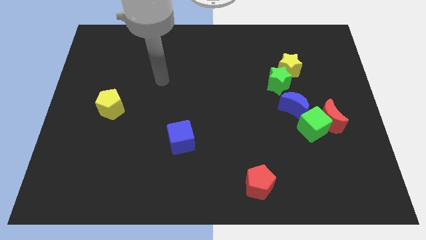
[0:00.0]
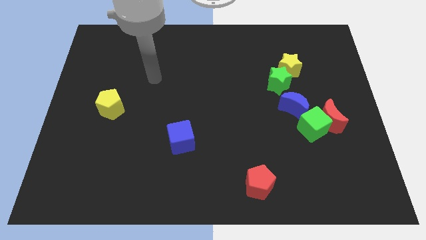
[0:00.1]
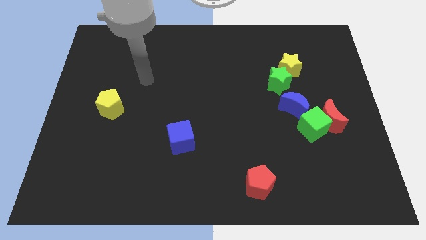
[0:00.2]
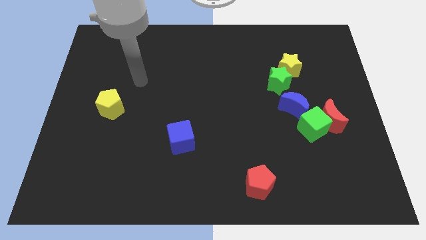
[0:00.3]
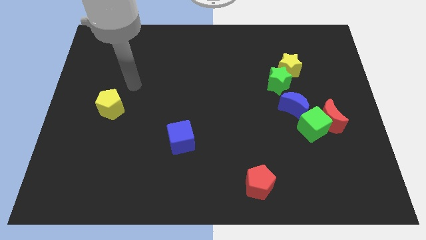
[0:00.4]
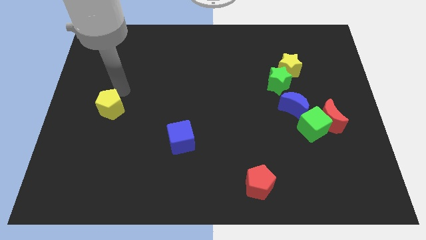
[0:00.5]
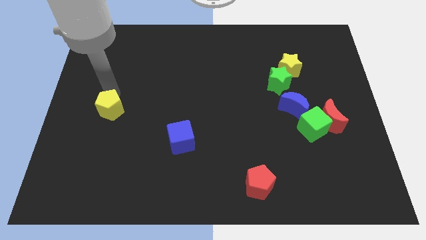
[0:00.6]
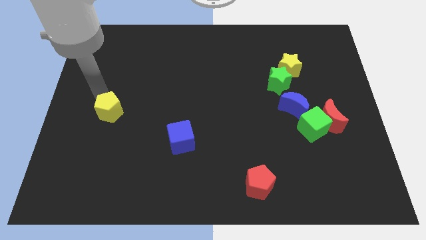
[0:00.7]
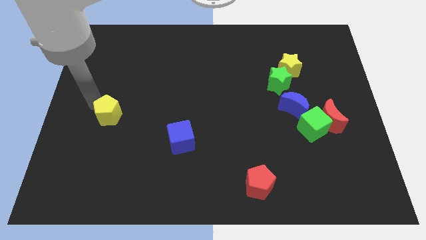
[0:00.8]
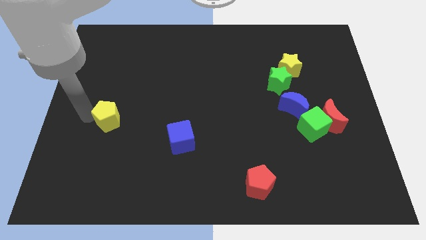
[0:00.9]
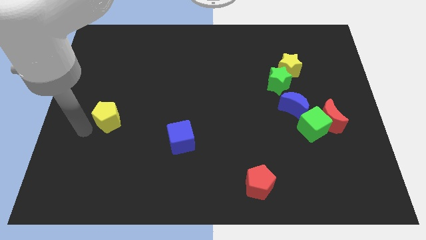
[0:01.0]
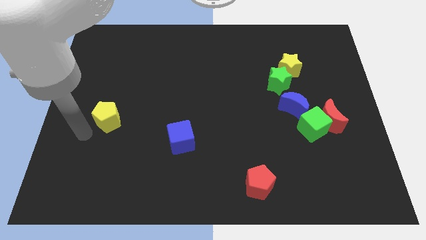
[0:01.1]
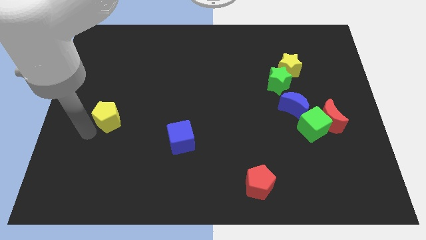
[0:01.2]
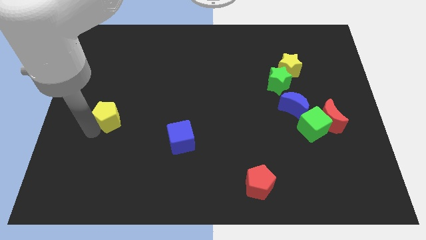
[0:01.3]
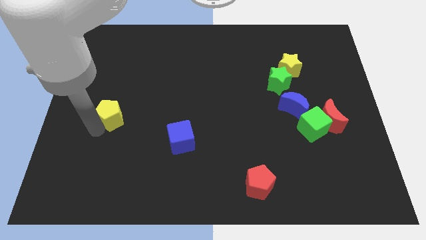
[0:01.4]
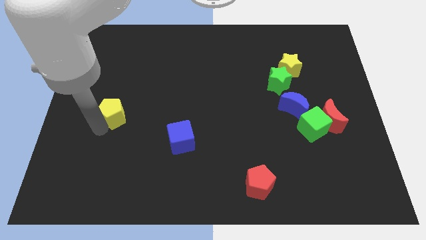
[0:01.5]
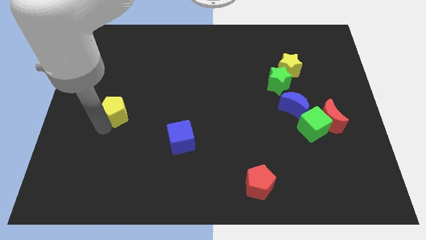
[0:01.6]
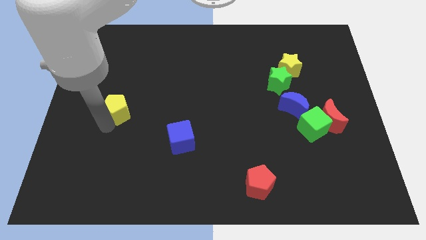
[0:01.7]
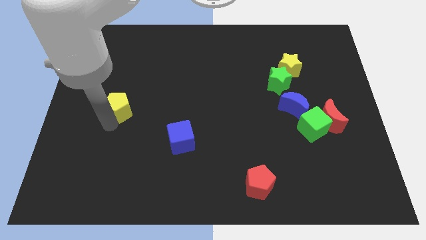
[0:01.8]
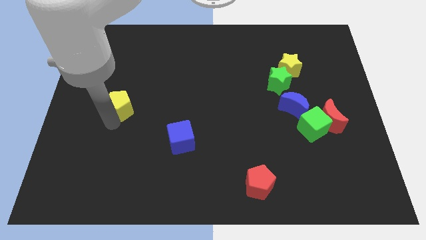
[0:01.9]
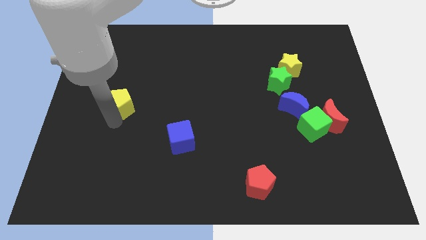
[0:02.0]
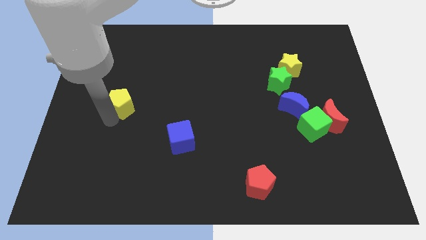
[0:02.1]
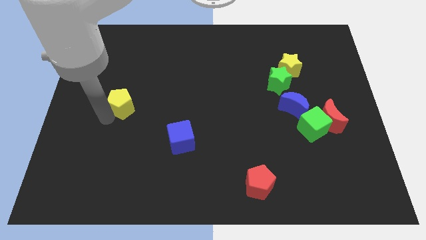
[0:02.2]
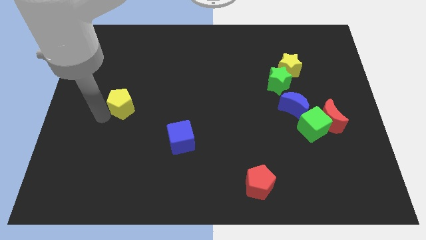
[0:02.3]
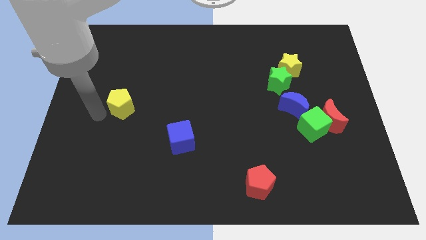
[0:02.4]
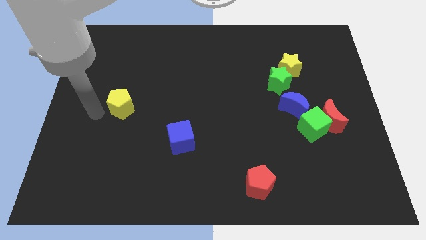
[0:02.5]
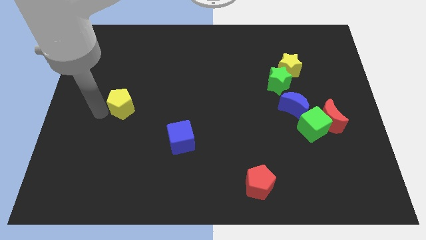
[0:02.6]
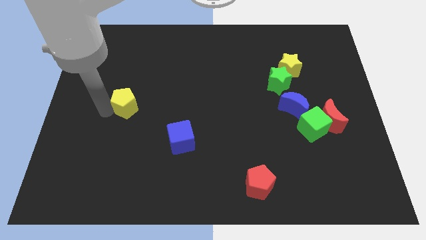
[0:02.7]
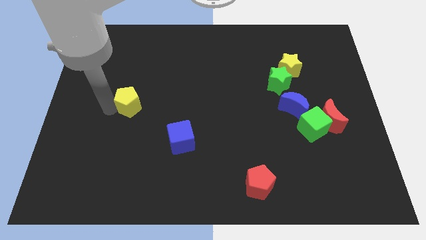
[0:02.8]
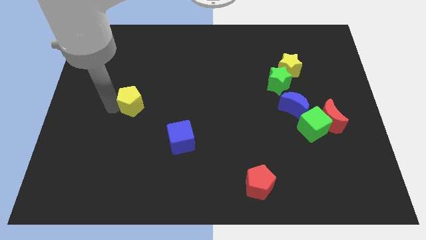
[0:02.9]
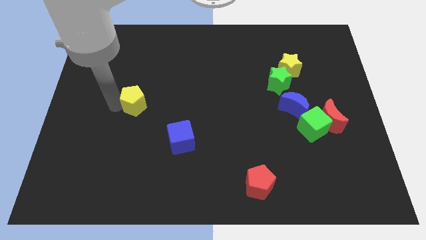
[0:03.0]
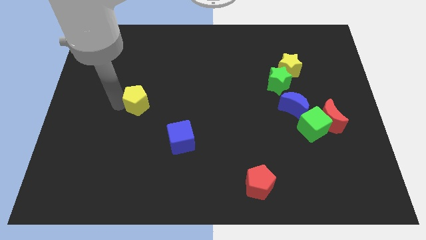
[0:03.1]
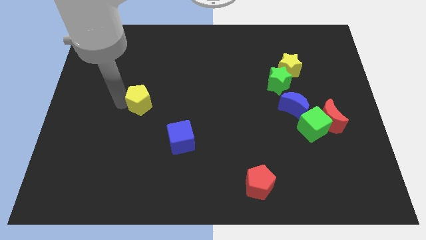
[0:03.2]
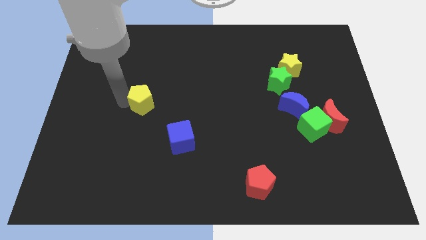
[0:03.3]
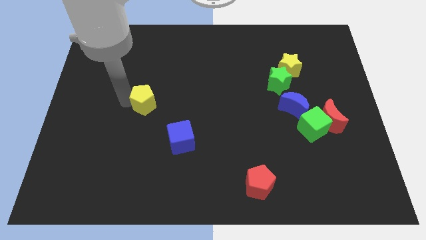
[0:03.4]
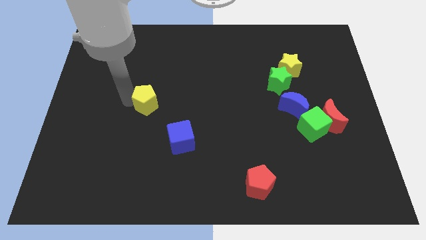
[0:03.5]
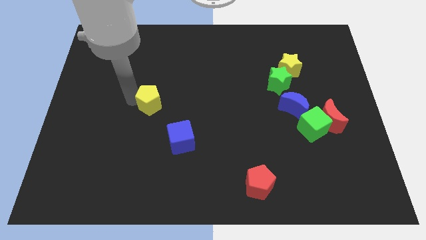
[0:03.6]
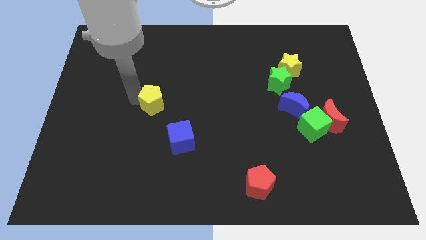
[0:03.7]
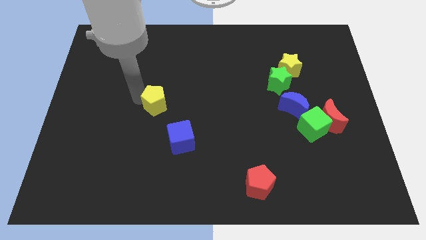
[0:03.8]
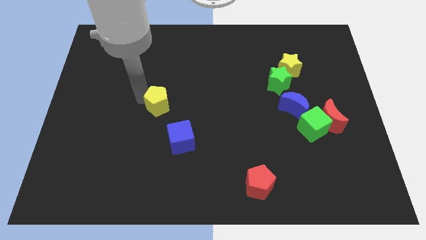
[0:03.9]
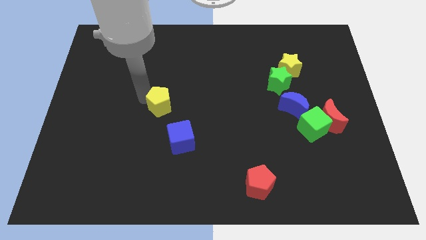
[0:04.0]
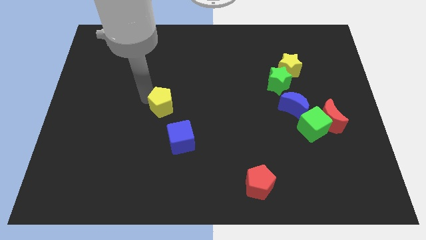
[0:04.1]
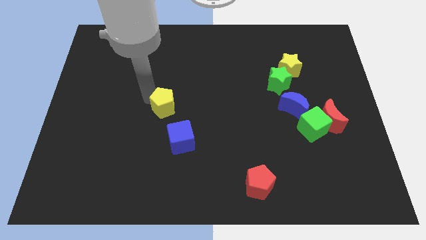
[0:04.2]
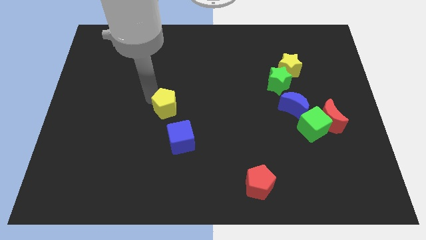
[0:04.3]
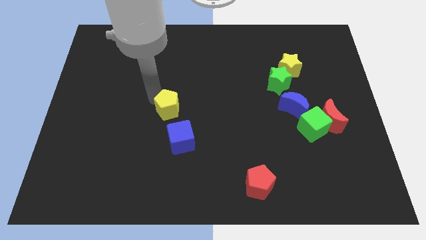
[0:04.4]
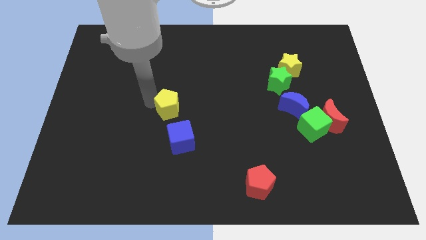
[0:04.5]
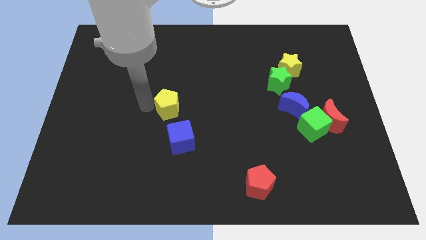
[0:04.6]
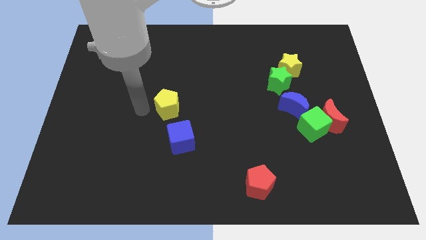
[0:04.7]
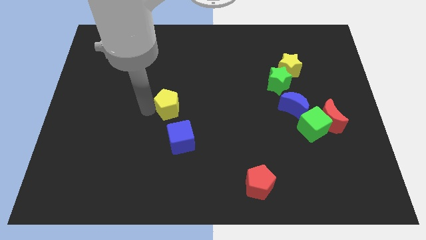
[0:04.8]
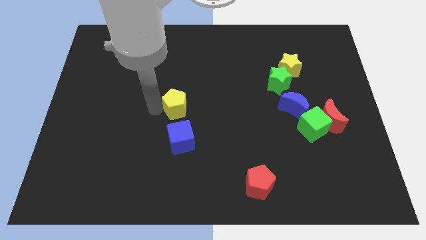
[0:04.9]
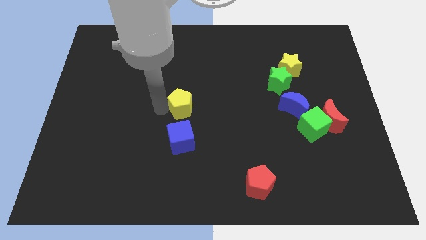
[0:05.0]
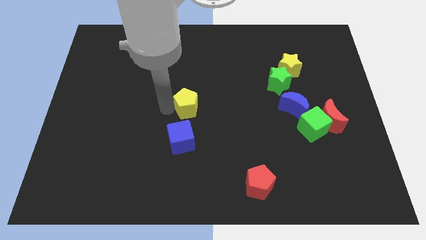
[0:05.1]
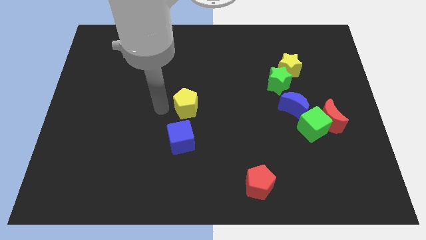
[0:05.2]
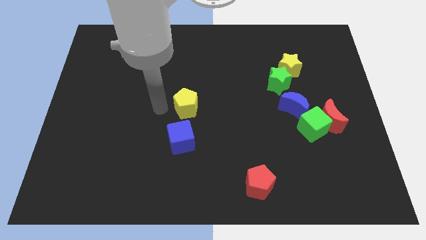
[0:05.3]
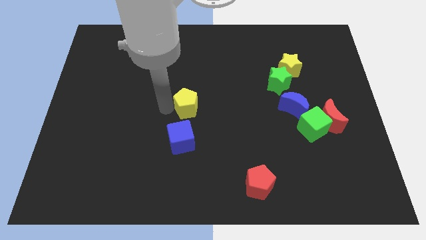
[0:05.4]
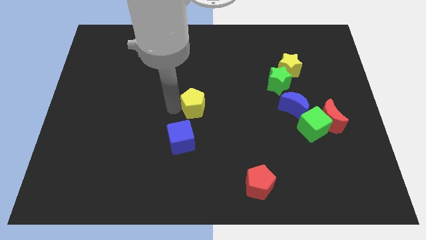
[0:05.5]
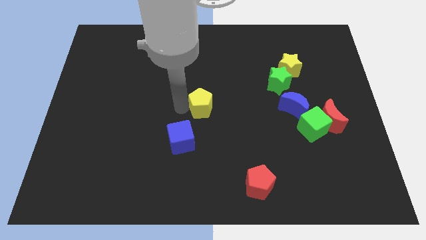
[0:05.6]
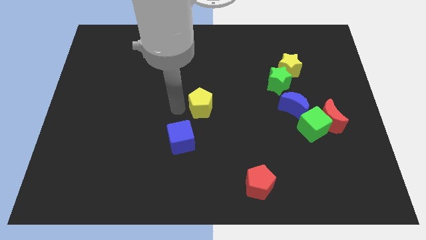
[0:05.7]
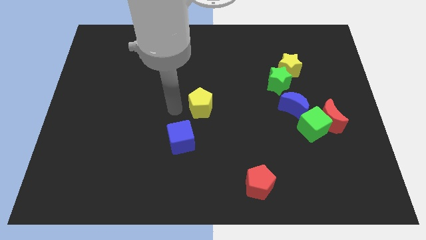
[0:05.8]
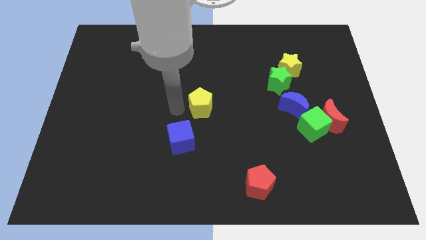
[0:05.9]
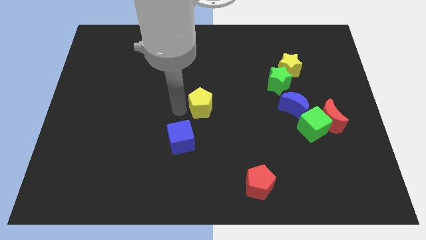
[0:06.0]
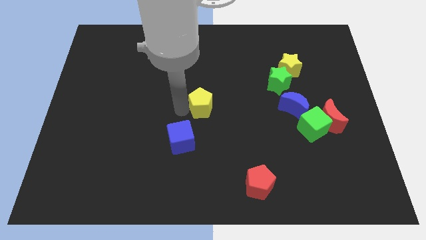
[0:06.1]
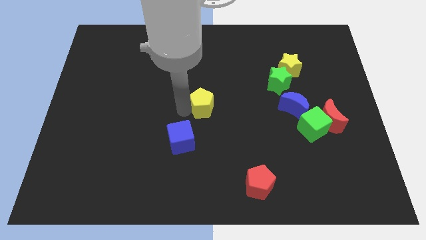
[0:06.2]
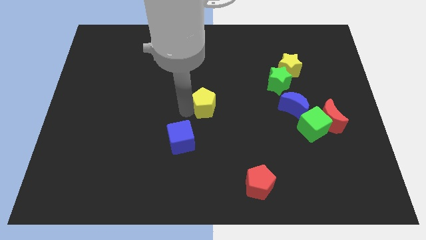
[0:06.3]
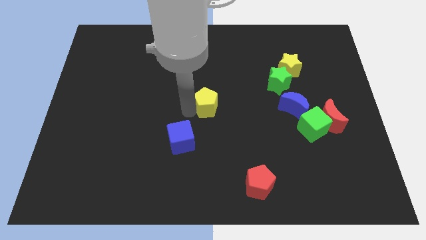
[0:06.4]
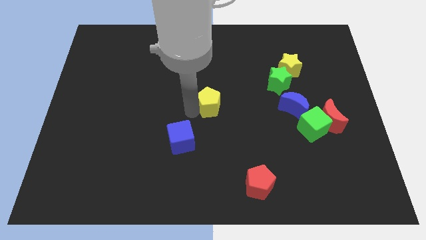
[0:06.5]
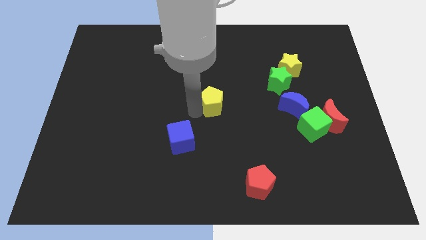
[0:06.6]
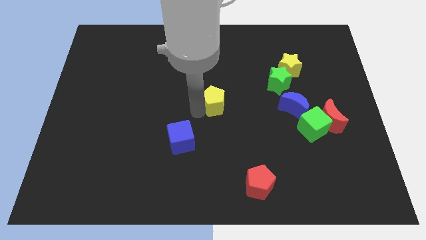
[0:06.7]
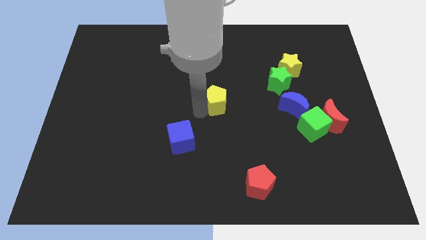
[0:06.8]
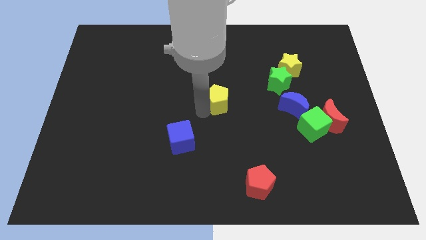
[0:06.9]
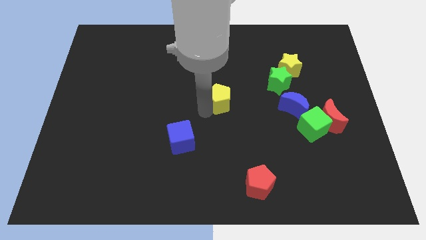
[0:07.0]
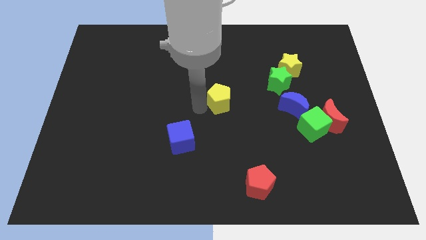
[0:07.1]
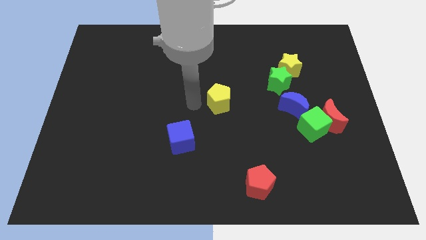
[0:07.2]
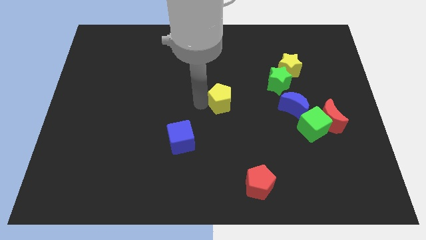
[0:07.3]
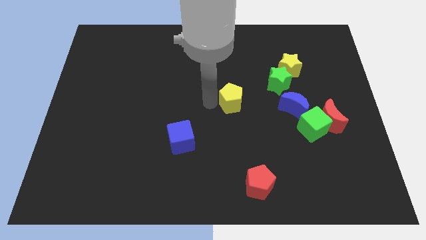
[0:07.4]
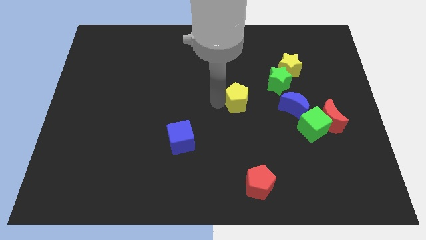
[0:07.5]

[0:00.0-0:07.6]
push the yellow pentagon to the bottom left of the green star
